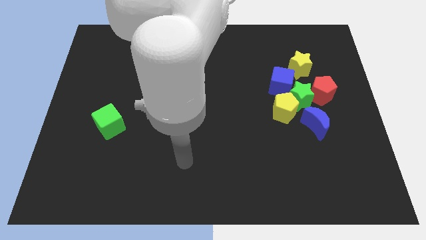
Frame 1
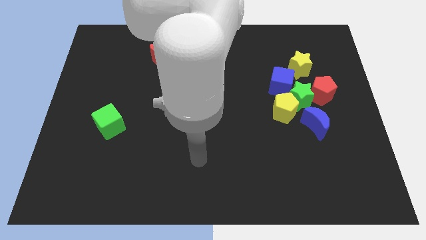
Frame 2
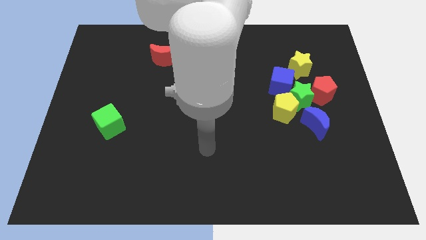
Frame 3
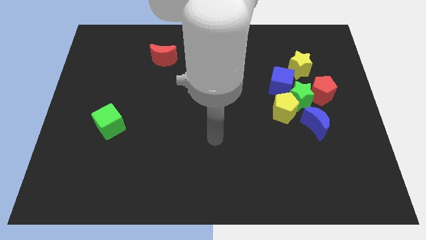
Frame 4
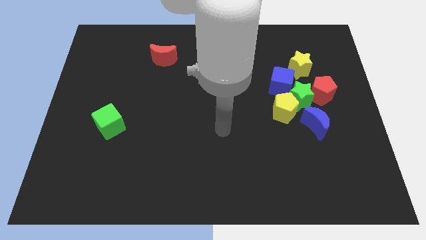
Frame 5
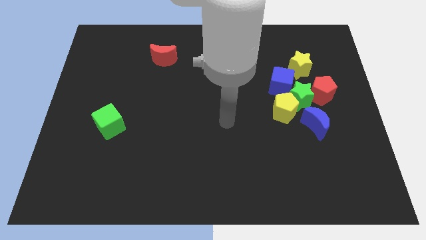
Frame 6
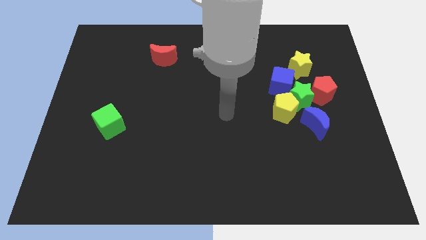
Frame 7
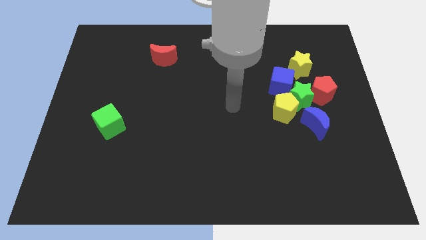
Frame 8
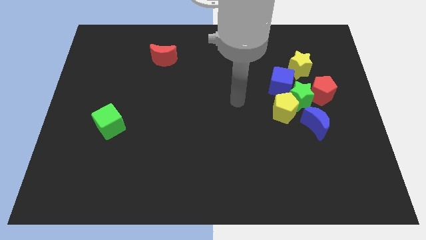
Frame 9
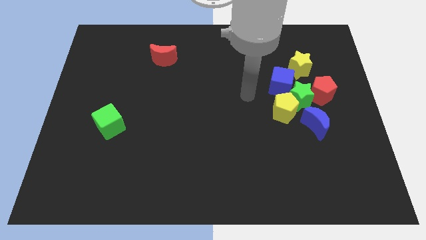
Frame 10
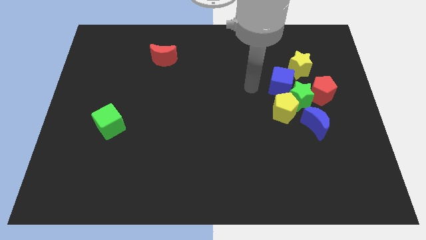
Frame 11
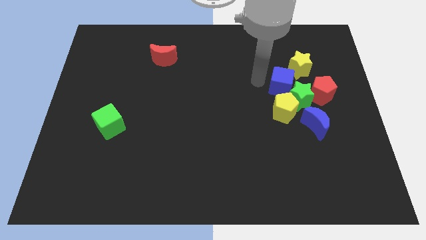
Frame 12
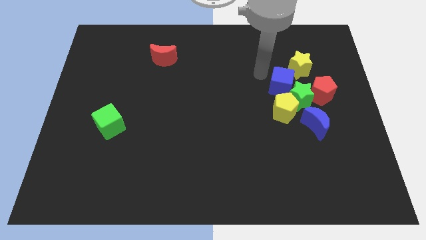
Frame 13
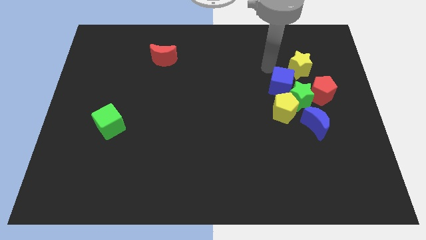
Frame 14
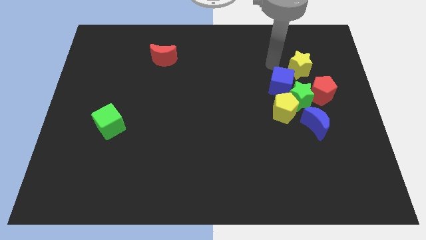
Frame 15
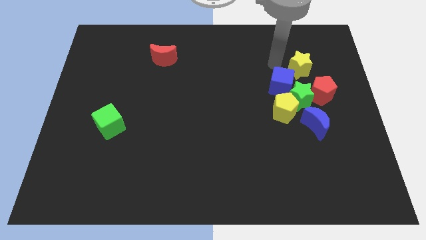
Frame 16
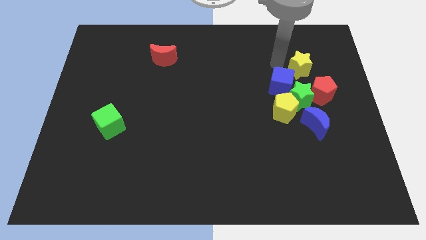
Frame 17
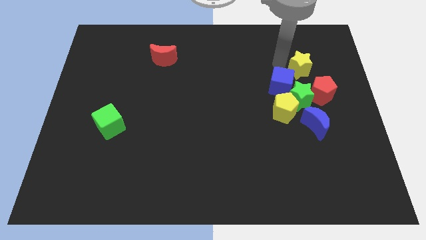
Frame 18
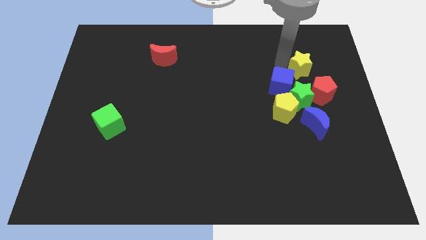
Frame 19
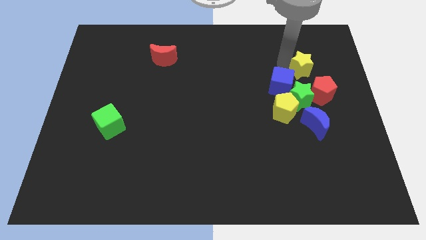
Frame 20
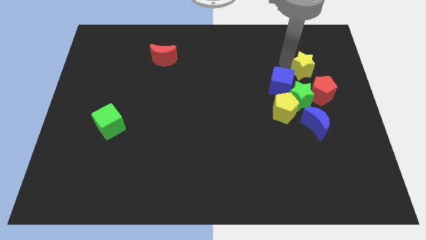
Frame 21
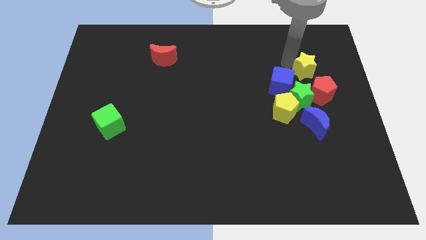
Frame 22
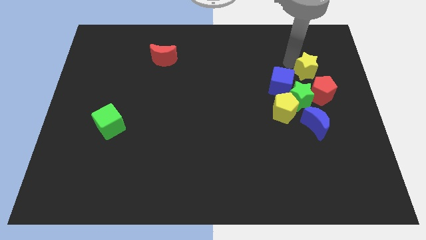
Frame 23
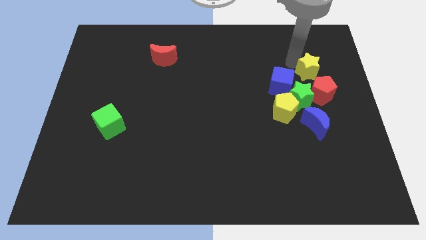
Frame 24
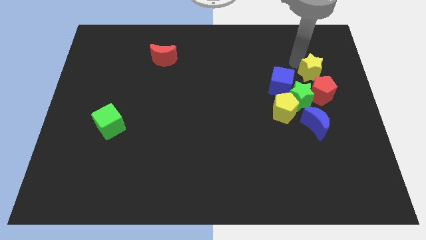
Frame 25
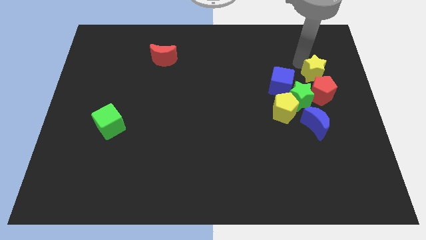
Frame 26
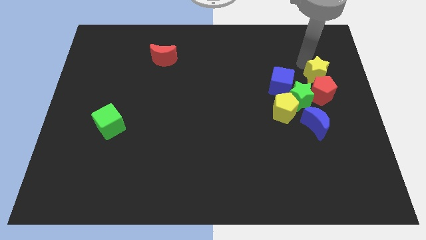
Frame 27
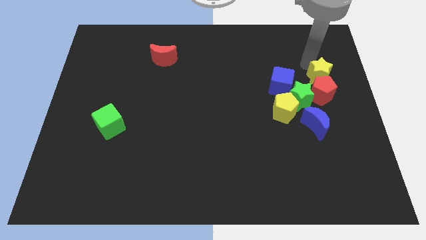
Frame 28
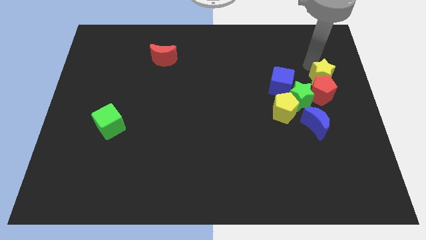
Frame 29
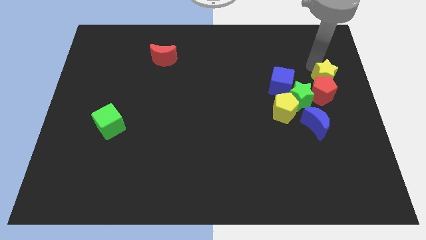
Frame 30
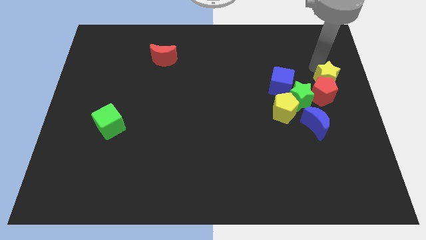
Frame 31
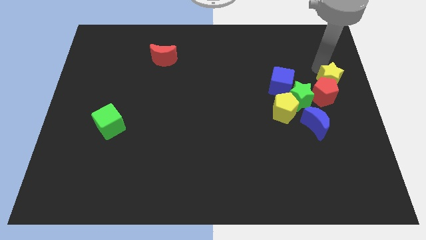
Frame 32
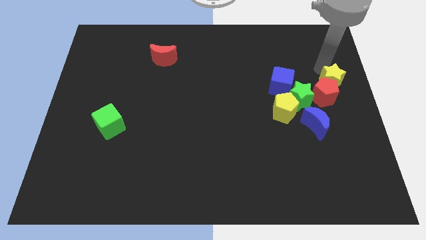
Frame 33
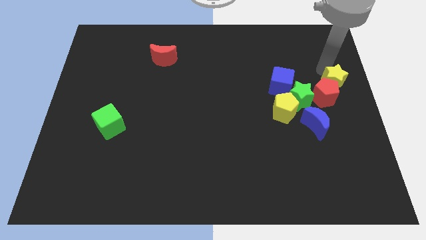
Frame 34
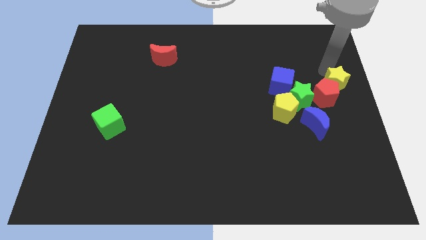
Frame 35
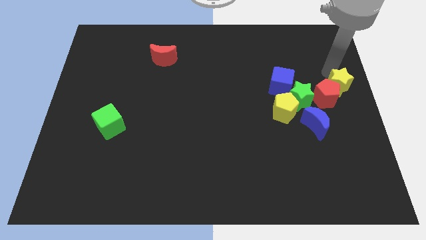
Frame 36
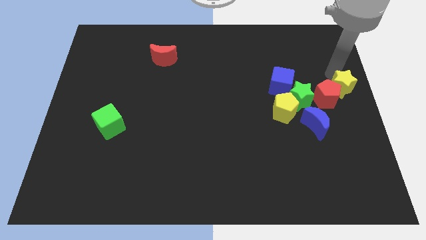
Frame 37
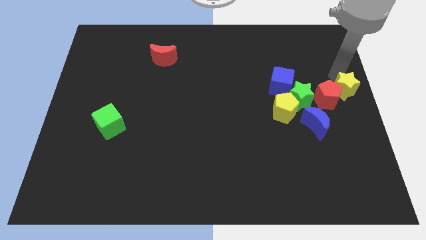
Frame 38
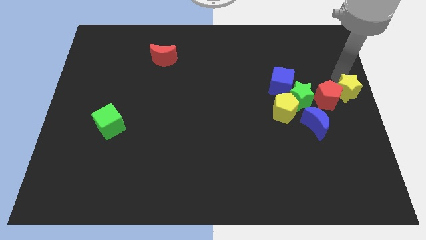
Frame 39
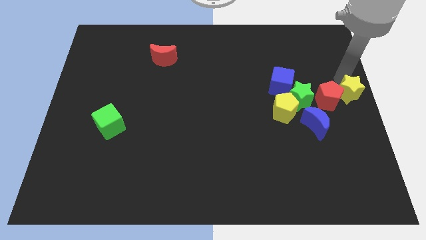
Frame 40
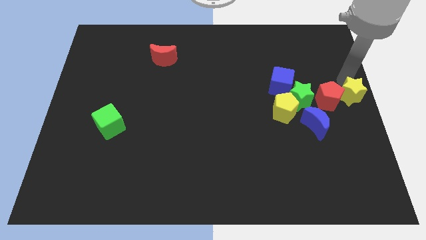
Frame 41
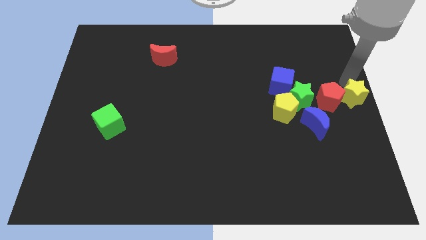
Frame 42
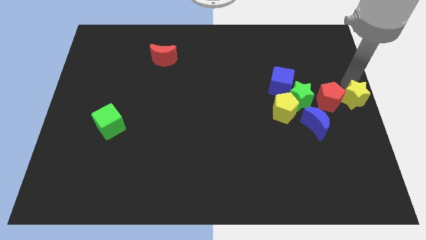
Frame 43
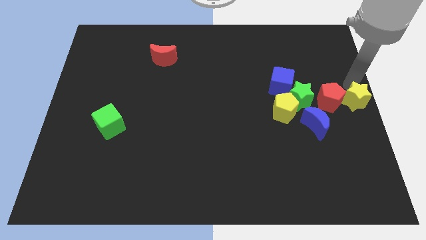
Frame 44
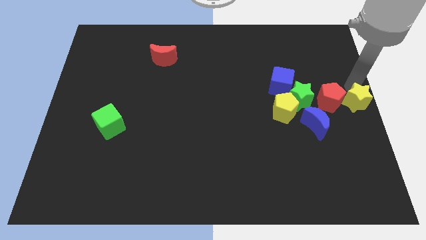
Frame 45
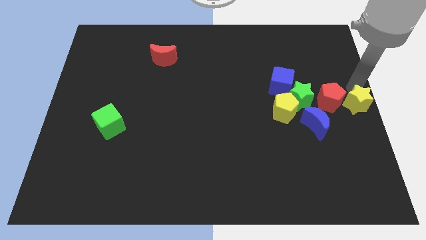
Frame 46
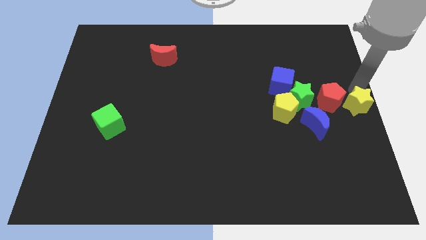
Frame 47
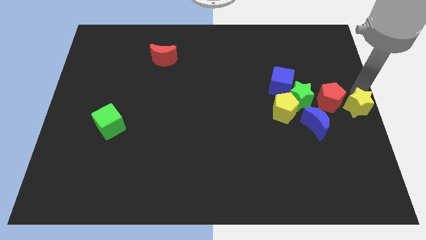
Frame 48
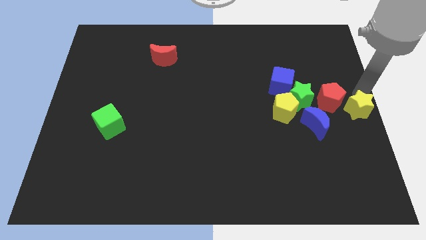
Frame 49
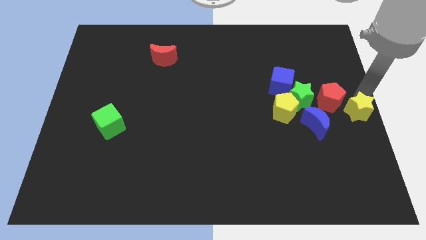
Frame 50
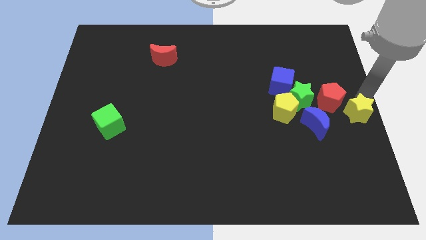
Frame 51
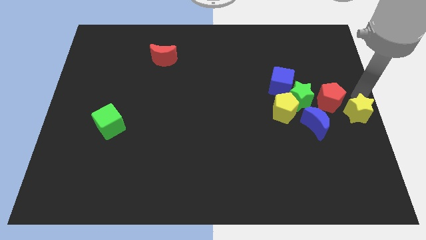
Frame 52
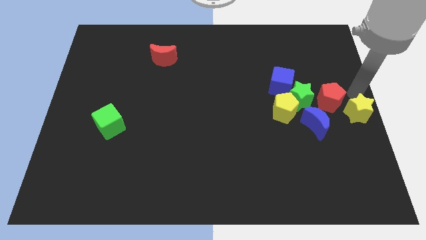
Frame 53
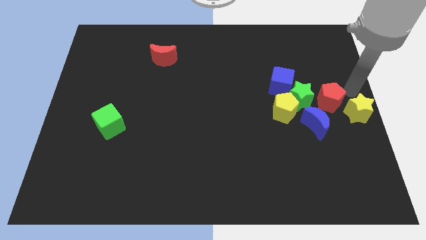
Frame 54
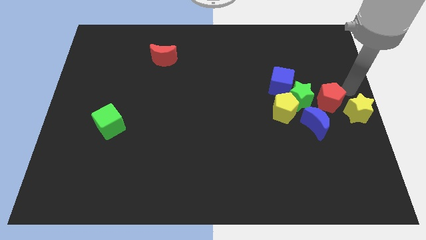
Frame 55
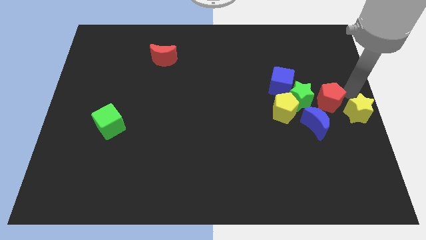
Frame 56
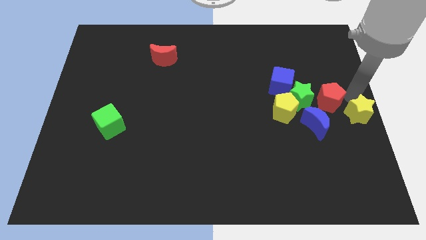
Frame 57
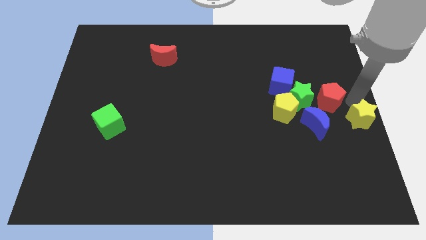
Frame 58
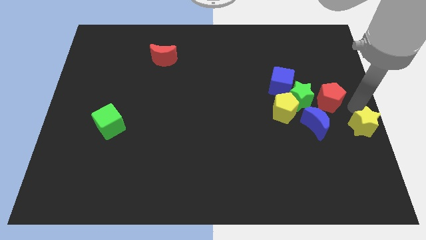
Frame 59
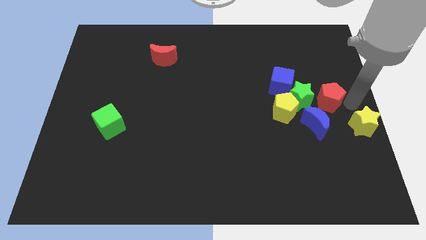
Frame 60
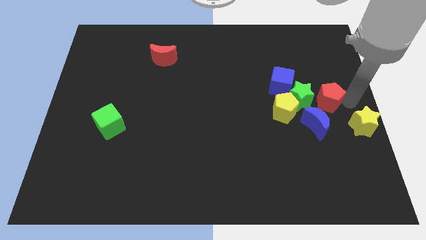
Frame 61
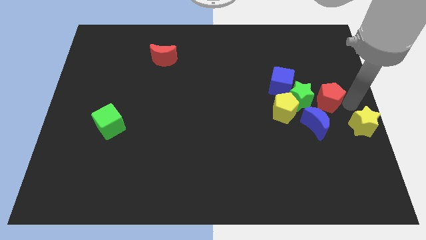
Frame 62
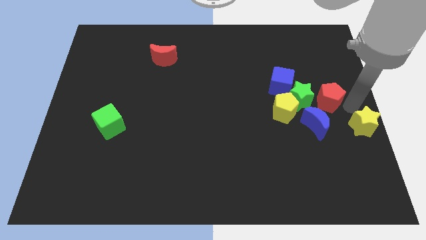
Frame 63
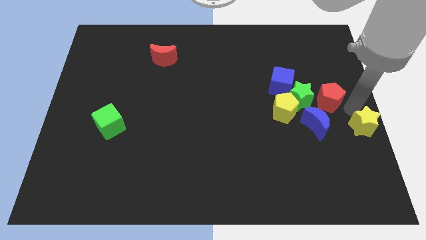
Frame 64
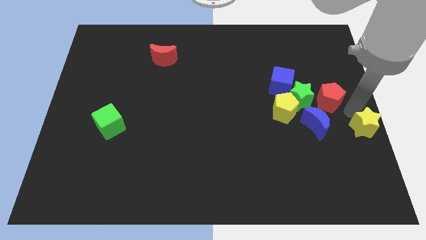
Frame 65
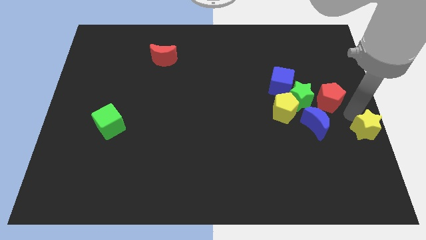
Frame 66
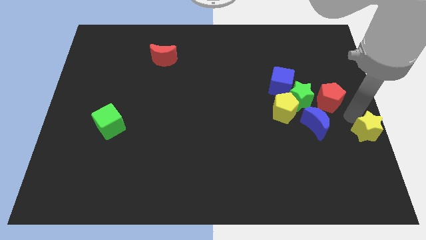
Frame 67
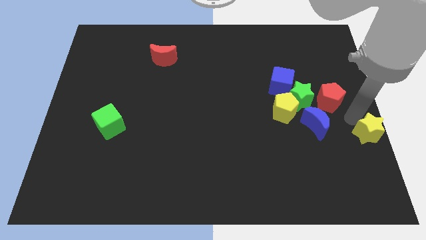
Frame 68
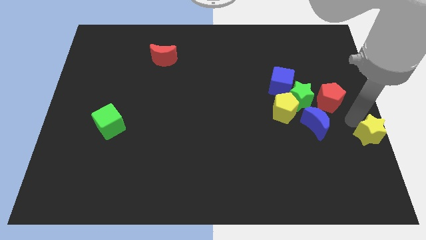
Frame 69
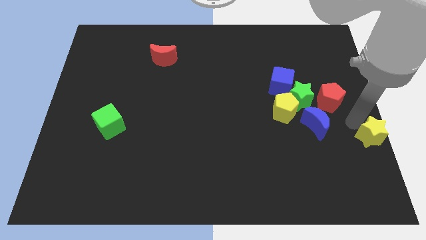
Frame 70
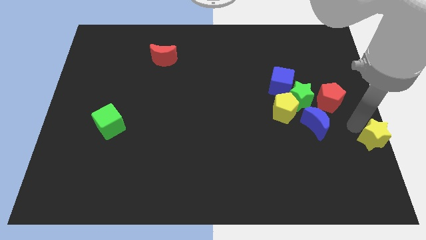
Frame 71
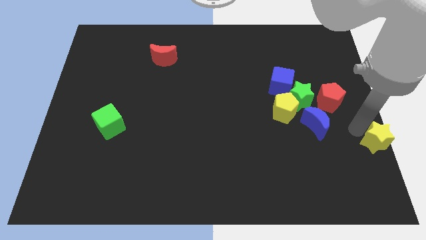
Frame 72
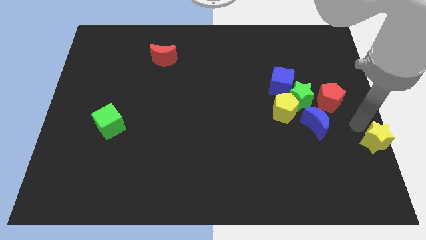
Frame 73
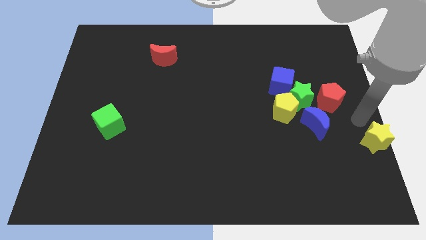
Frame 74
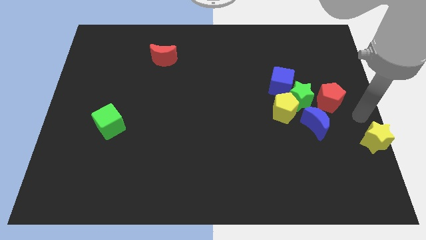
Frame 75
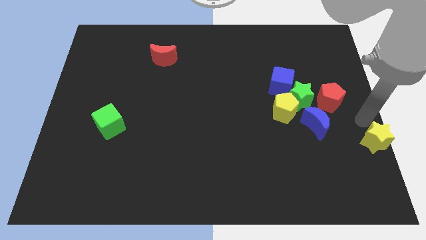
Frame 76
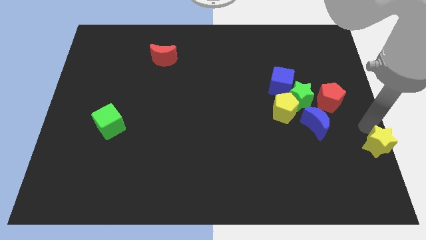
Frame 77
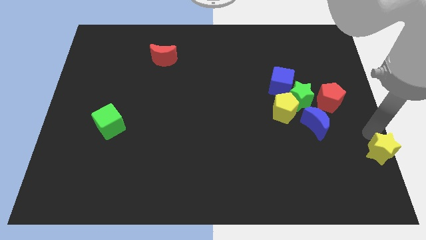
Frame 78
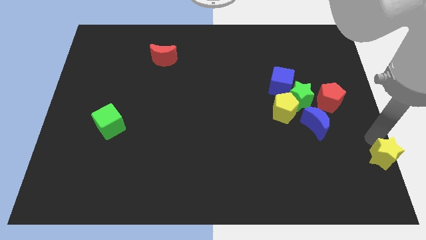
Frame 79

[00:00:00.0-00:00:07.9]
slide the yellow star to the bottom right
